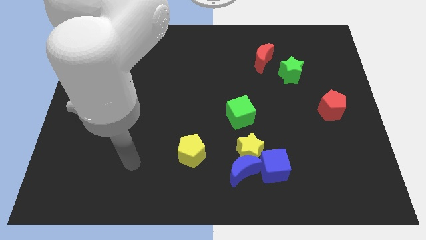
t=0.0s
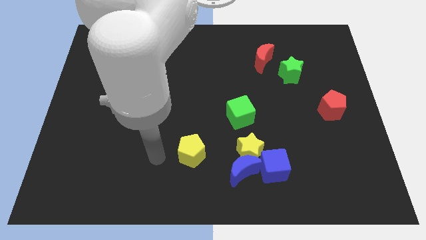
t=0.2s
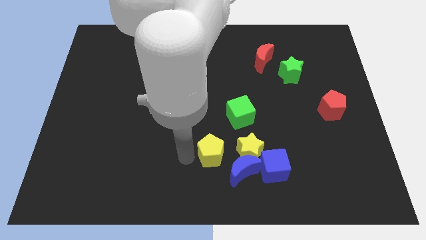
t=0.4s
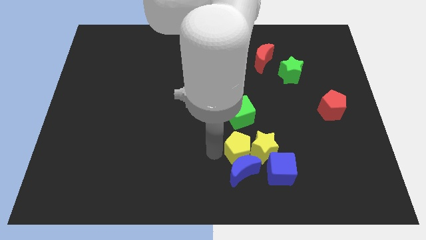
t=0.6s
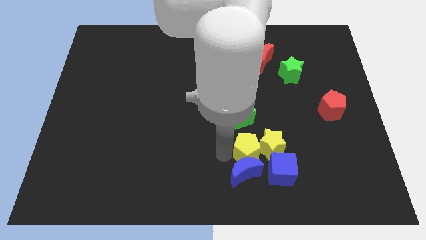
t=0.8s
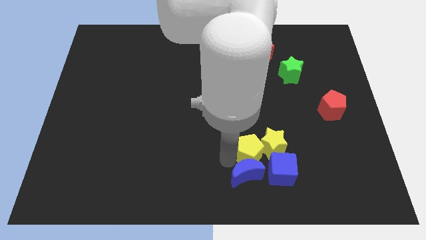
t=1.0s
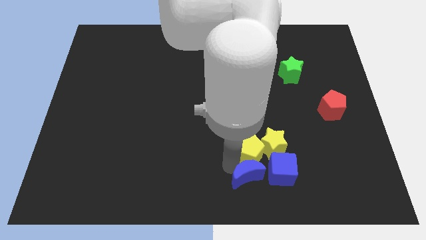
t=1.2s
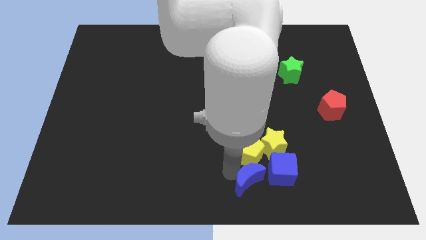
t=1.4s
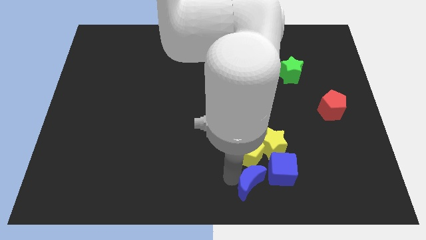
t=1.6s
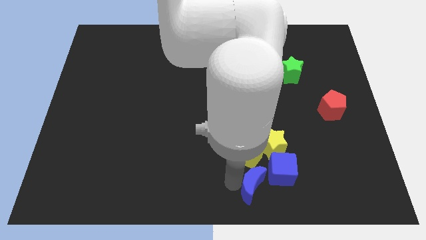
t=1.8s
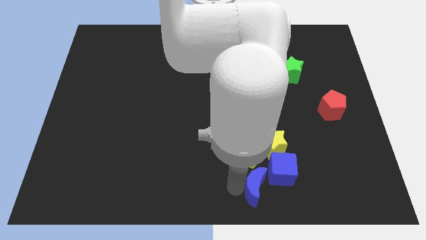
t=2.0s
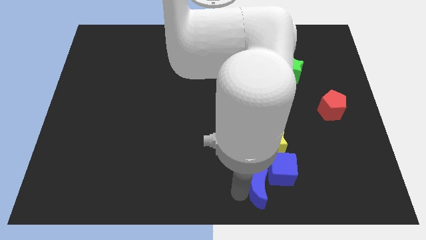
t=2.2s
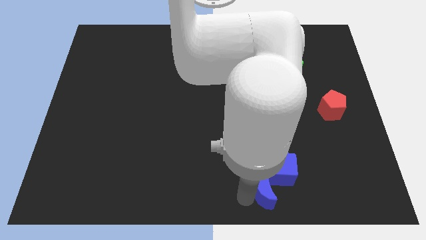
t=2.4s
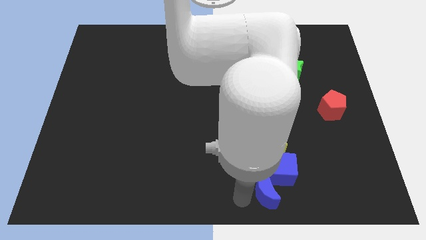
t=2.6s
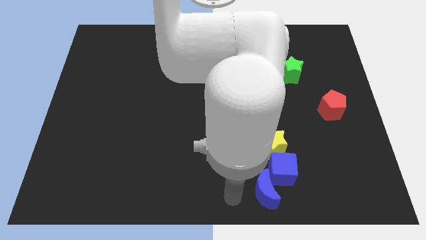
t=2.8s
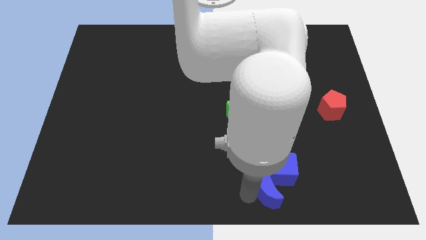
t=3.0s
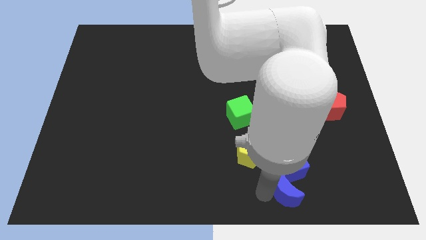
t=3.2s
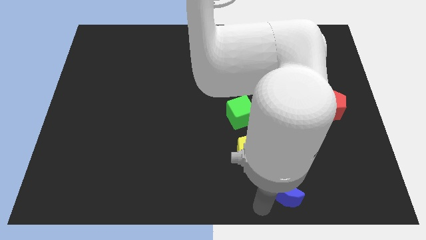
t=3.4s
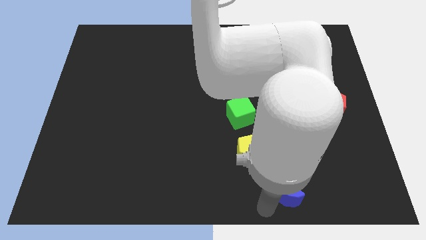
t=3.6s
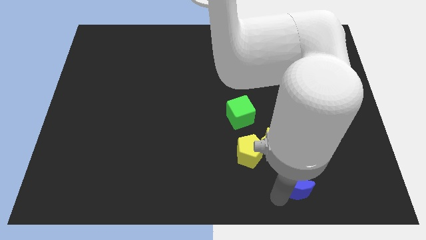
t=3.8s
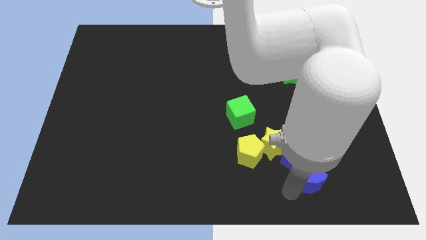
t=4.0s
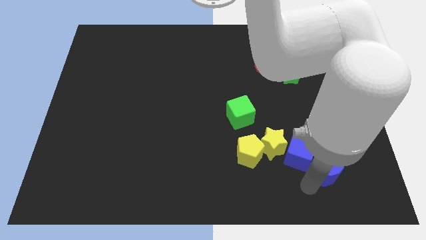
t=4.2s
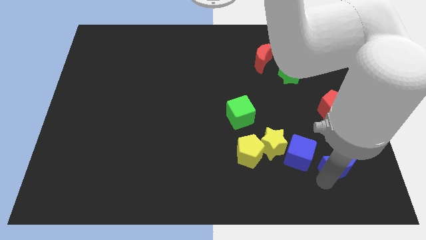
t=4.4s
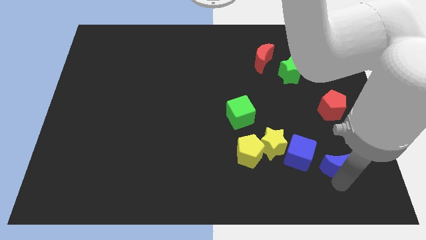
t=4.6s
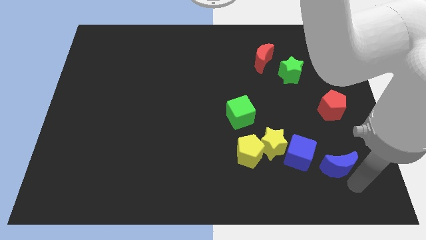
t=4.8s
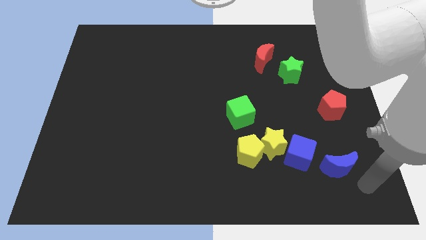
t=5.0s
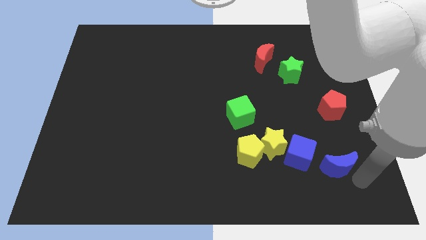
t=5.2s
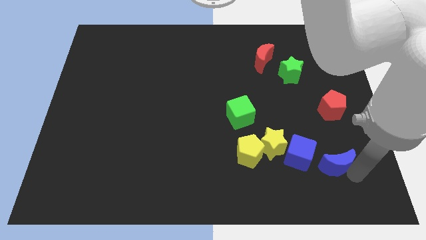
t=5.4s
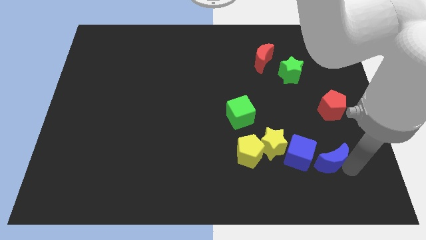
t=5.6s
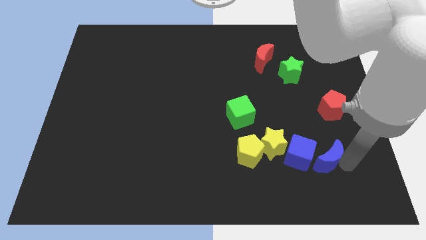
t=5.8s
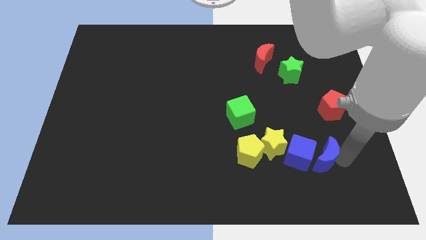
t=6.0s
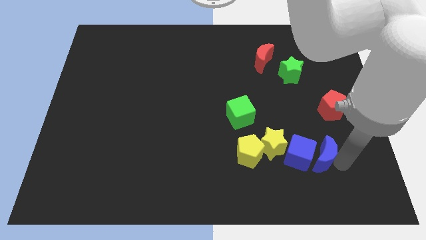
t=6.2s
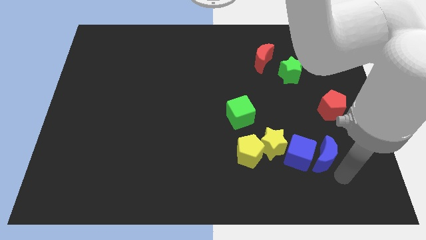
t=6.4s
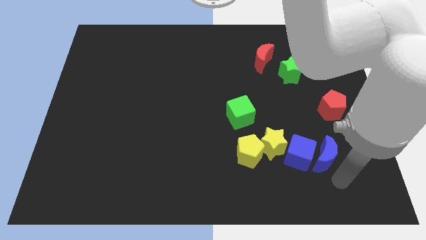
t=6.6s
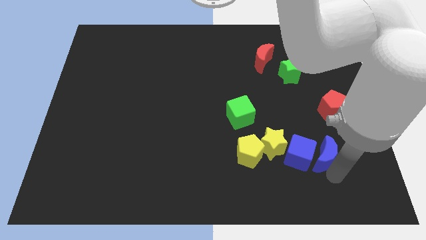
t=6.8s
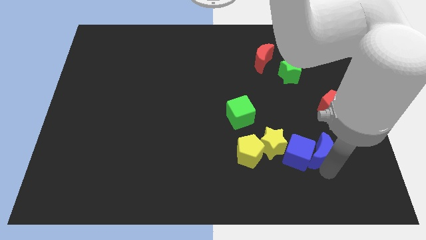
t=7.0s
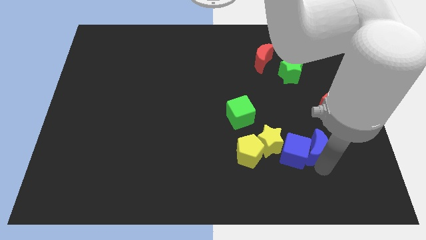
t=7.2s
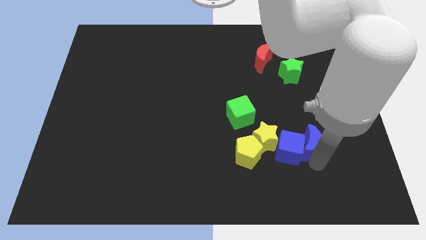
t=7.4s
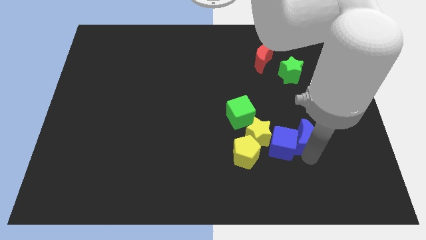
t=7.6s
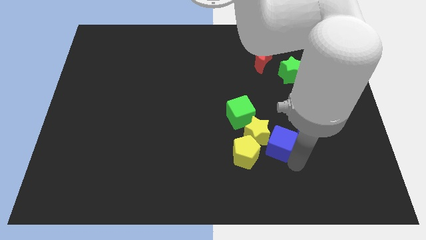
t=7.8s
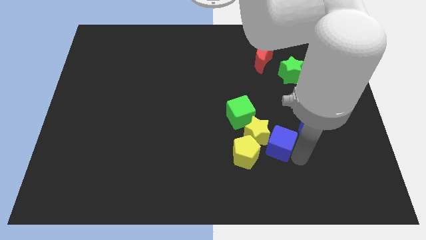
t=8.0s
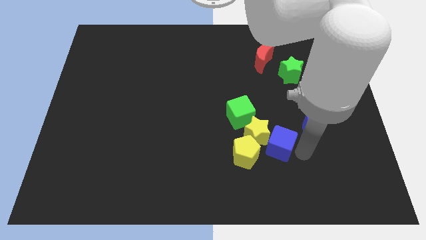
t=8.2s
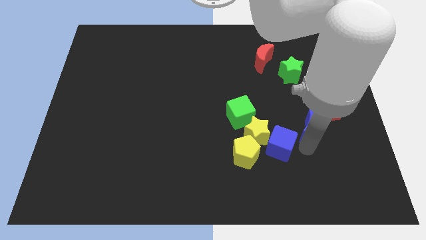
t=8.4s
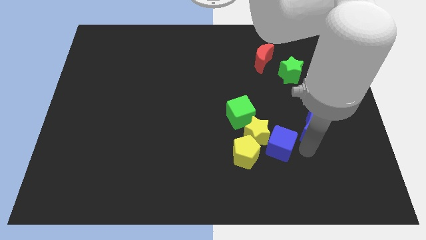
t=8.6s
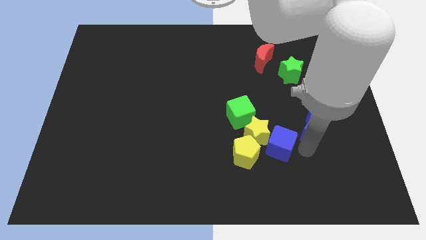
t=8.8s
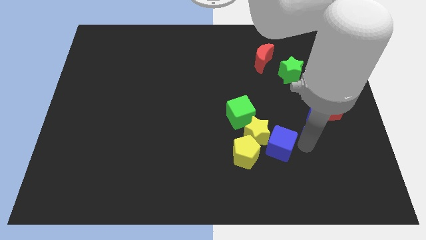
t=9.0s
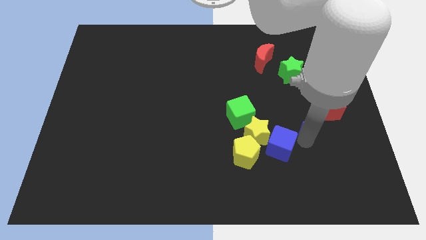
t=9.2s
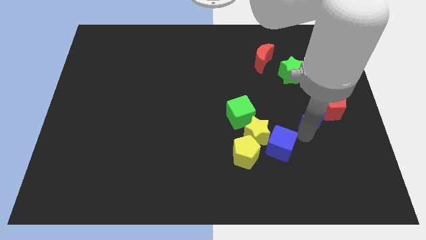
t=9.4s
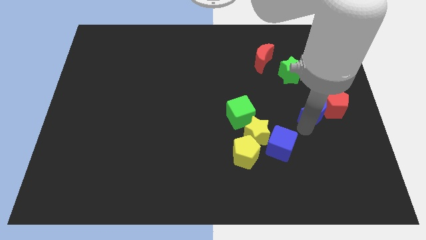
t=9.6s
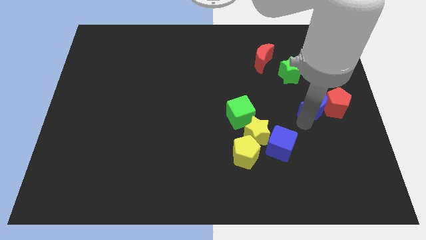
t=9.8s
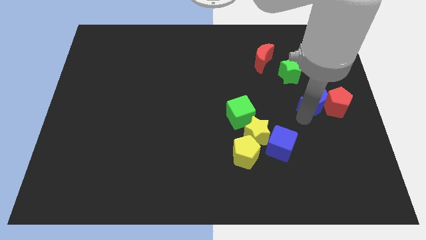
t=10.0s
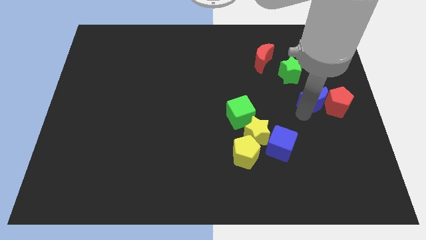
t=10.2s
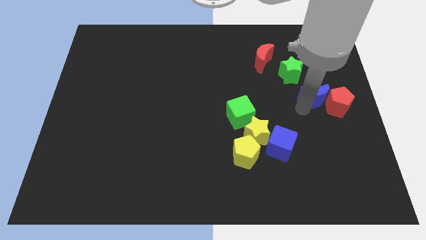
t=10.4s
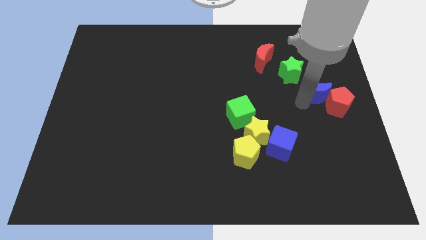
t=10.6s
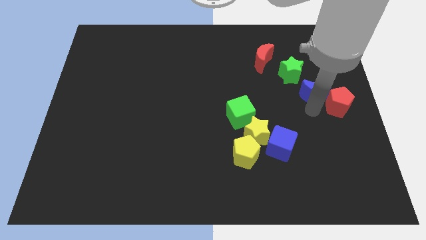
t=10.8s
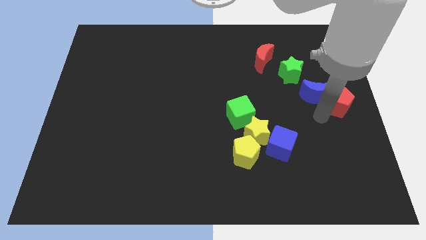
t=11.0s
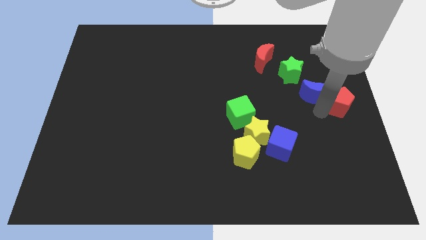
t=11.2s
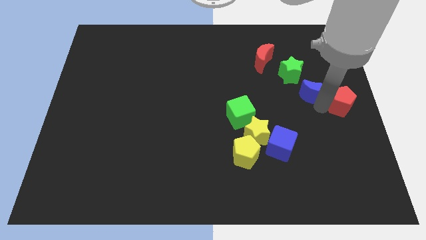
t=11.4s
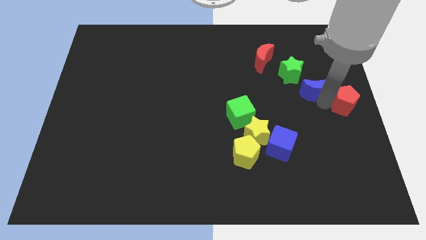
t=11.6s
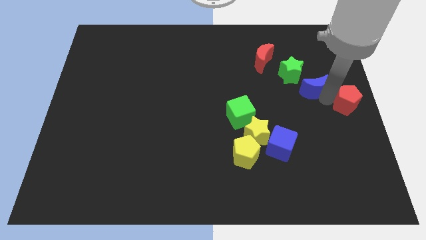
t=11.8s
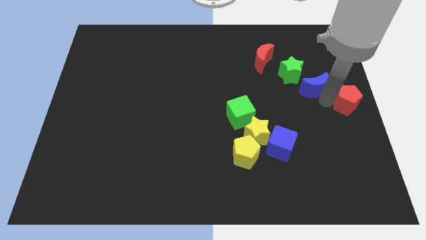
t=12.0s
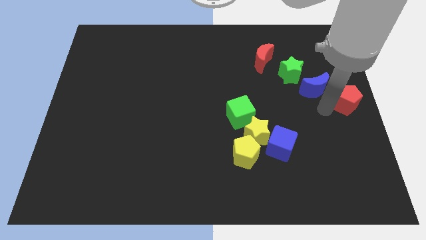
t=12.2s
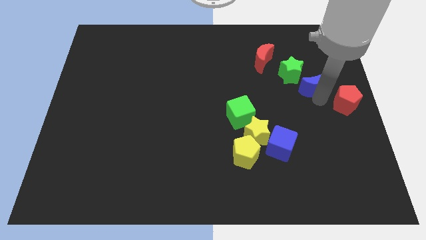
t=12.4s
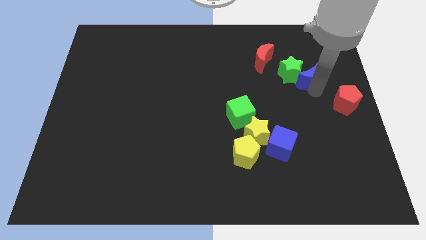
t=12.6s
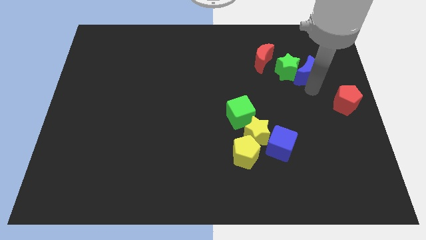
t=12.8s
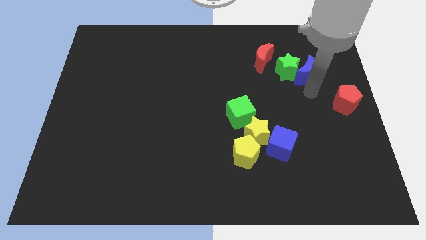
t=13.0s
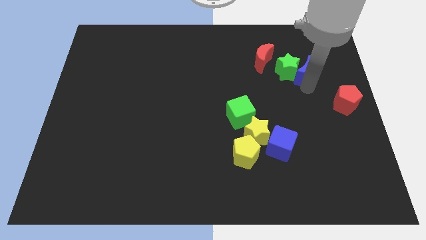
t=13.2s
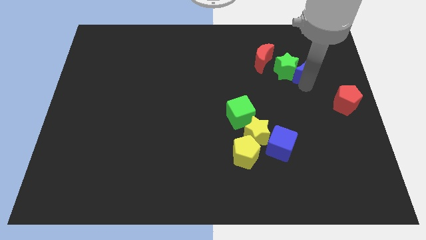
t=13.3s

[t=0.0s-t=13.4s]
move the blue moon to the right side of the red moon

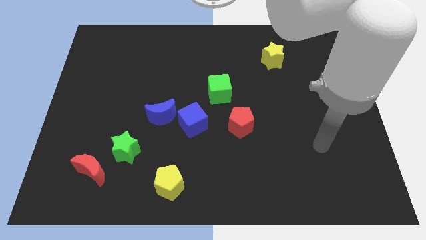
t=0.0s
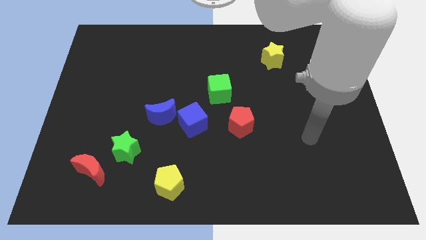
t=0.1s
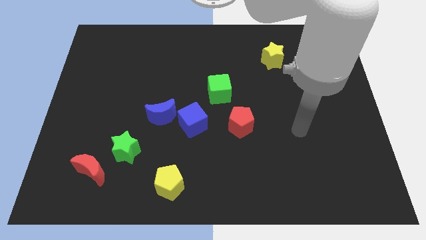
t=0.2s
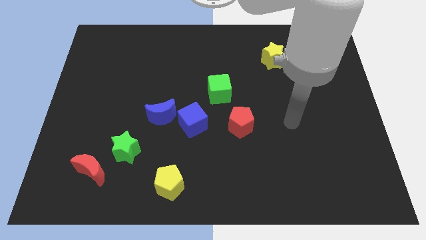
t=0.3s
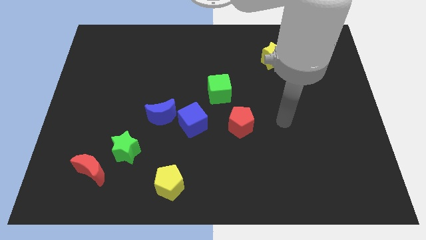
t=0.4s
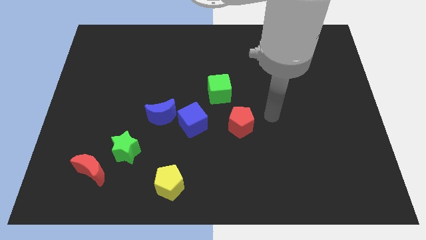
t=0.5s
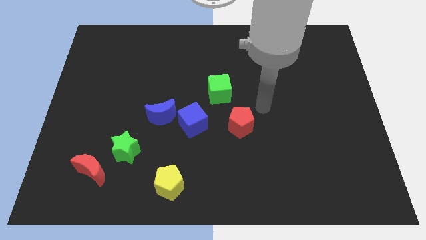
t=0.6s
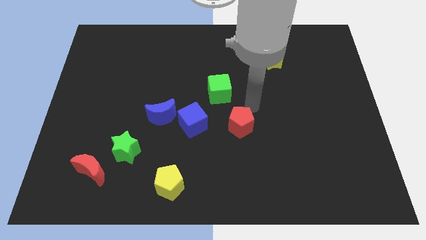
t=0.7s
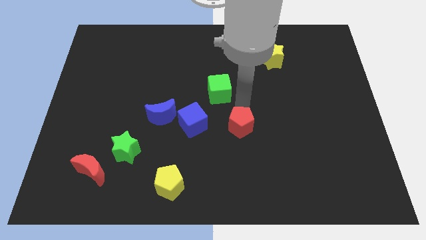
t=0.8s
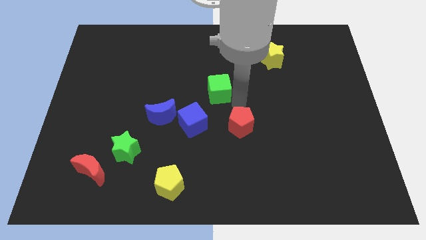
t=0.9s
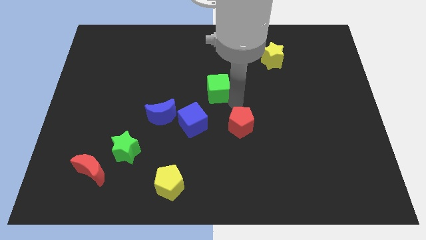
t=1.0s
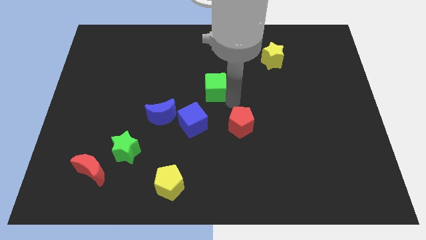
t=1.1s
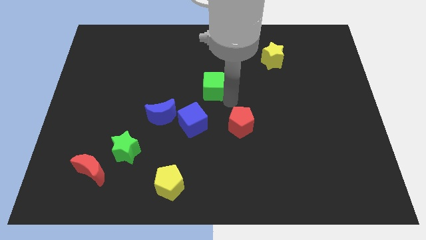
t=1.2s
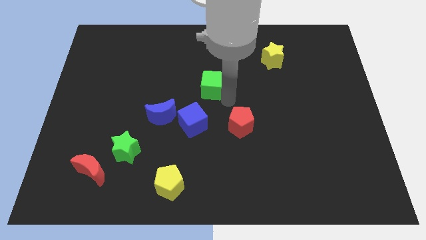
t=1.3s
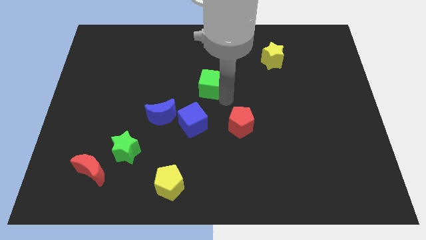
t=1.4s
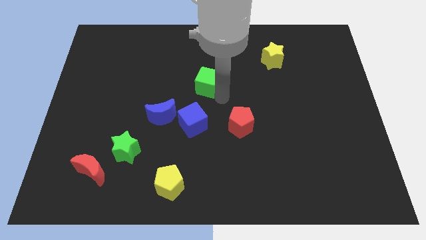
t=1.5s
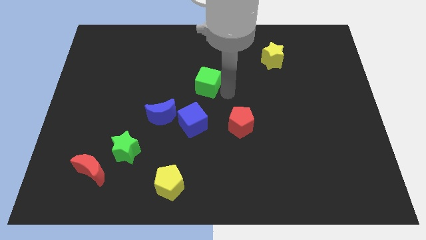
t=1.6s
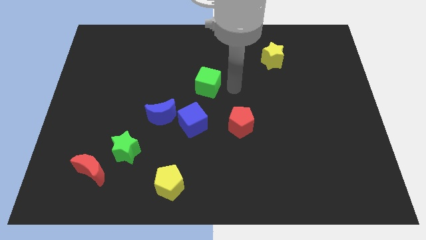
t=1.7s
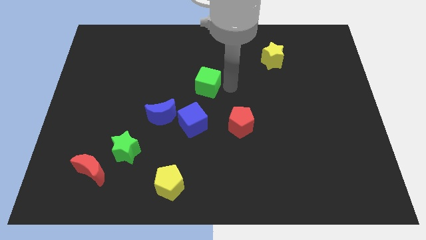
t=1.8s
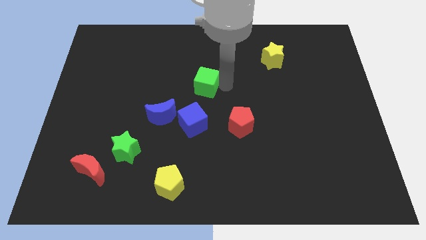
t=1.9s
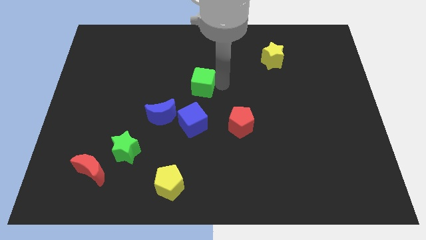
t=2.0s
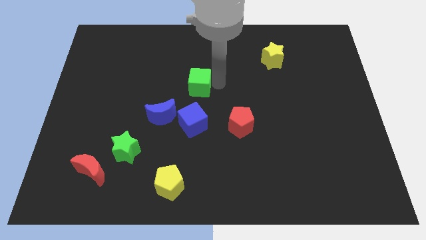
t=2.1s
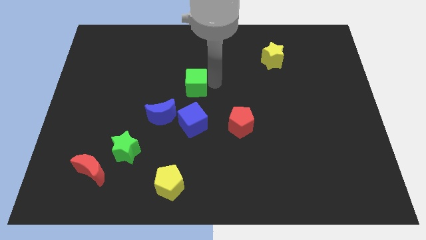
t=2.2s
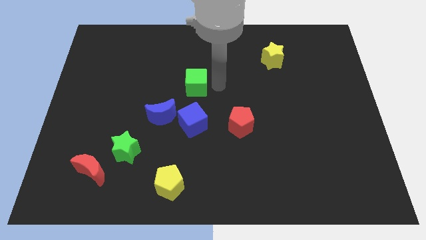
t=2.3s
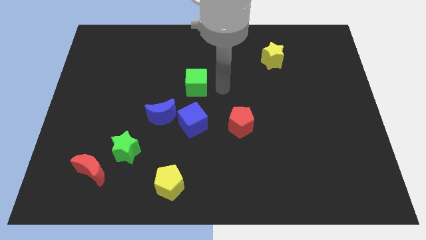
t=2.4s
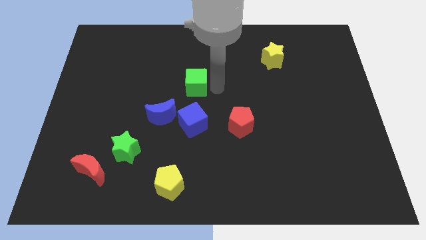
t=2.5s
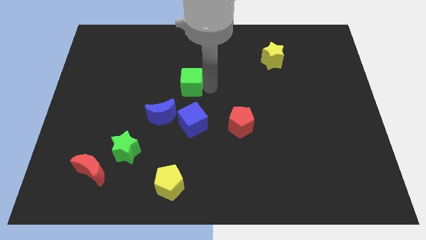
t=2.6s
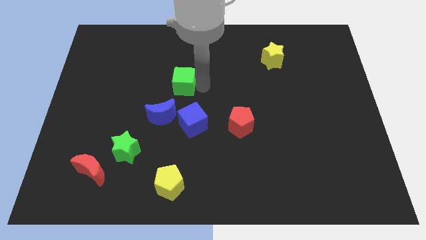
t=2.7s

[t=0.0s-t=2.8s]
slide the green cube to the top side of the blue moon
